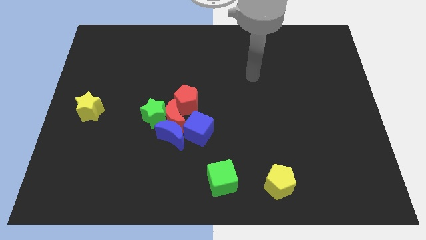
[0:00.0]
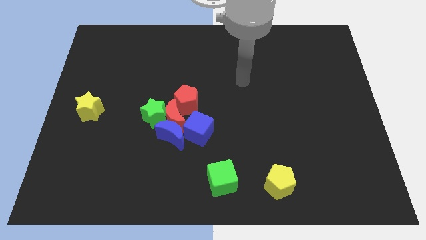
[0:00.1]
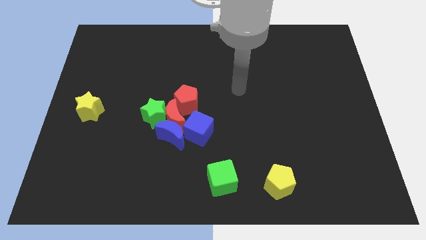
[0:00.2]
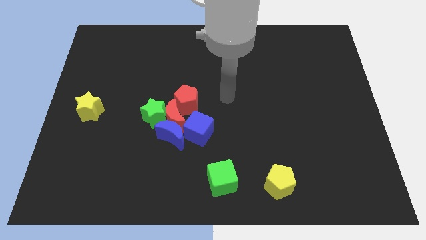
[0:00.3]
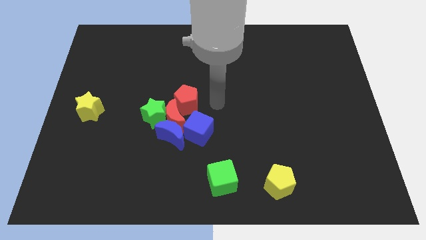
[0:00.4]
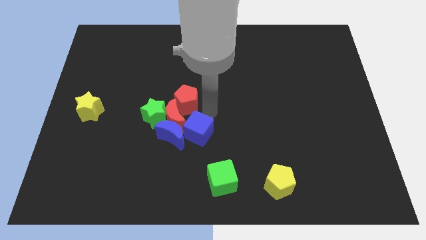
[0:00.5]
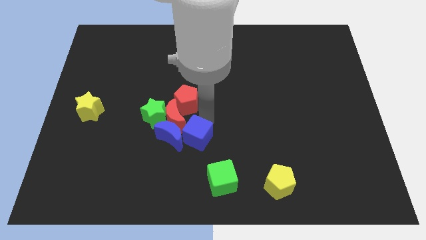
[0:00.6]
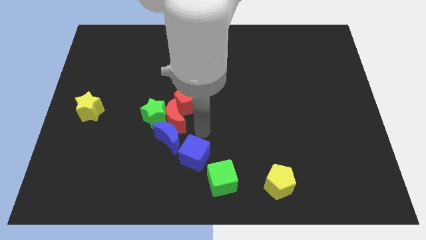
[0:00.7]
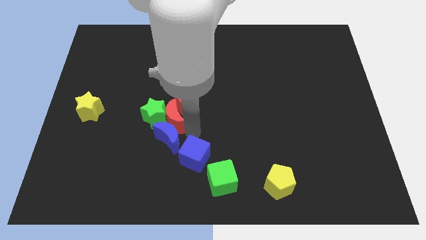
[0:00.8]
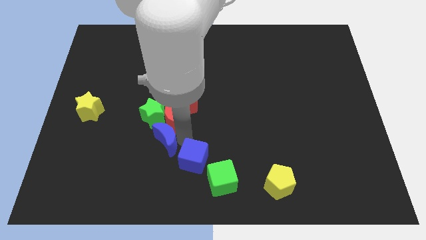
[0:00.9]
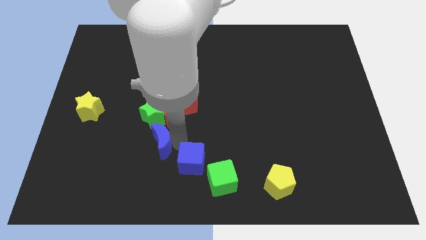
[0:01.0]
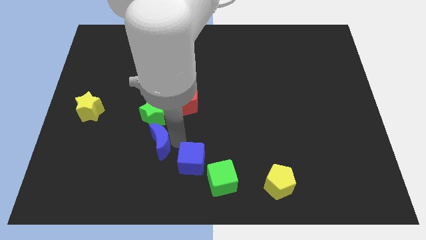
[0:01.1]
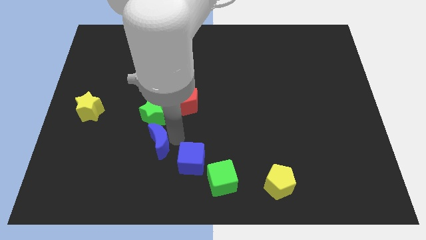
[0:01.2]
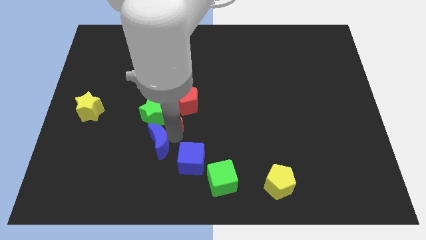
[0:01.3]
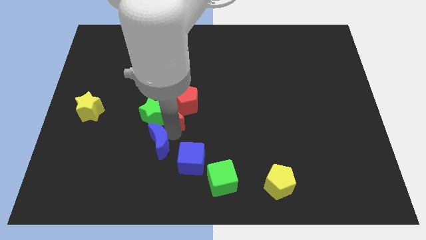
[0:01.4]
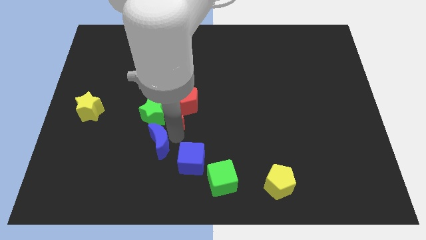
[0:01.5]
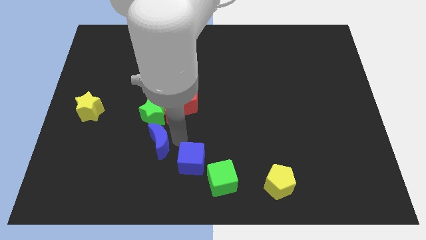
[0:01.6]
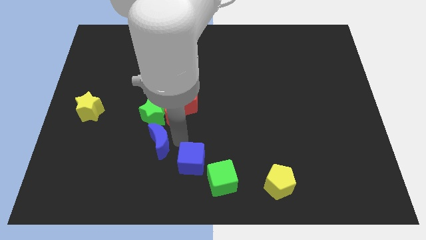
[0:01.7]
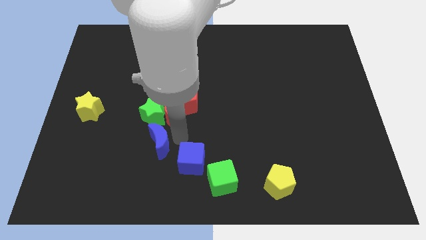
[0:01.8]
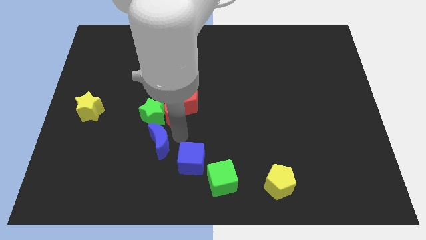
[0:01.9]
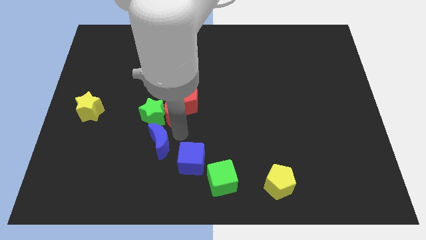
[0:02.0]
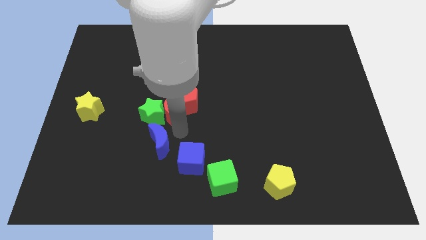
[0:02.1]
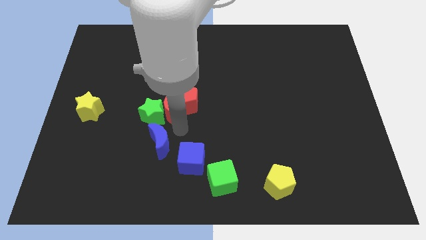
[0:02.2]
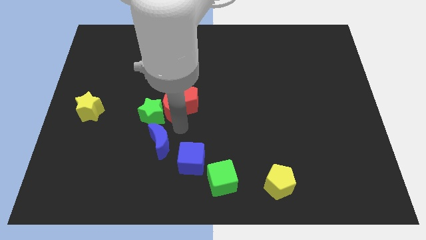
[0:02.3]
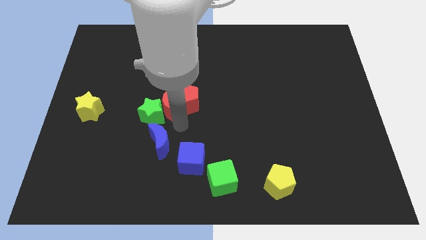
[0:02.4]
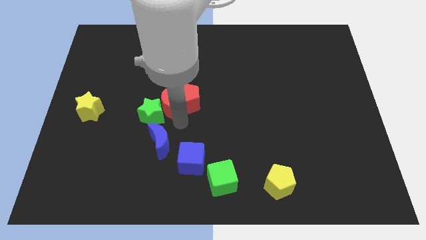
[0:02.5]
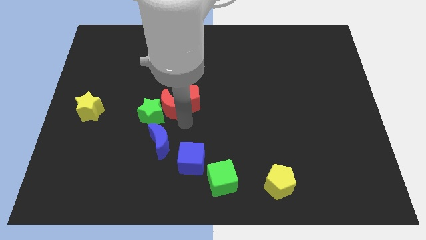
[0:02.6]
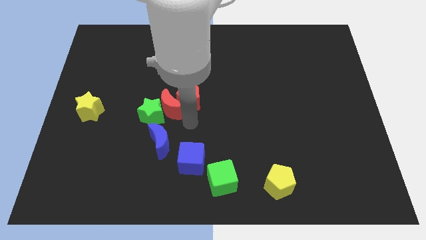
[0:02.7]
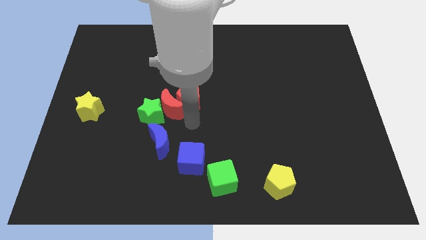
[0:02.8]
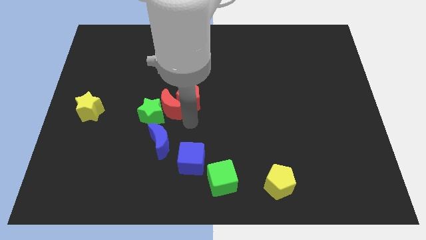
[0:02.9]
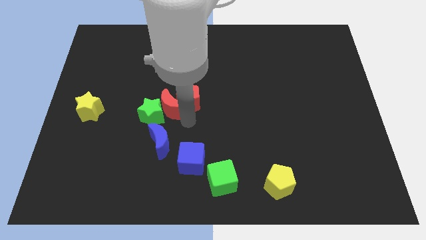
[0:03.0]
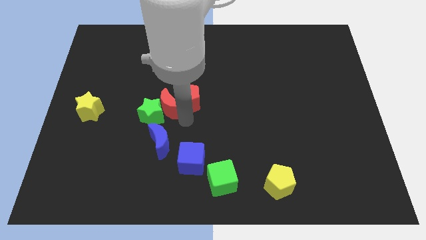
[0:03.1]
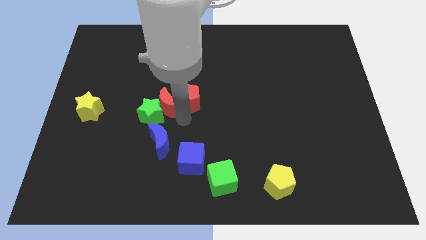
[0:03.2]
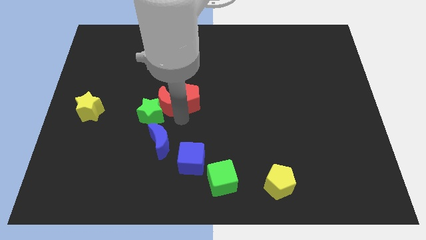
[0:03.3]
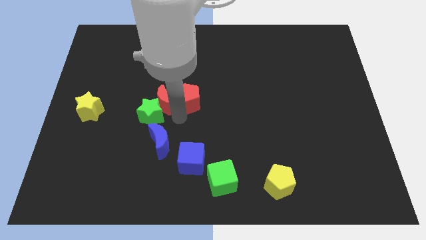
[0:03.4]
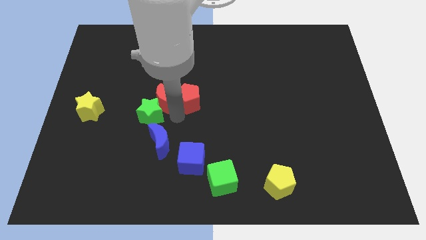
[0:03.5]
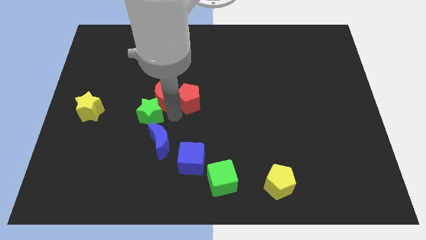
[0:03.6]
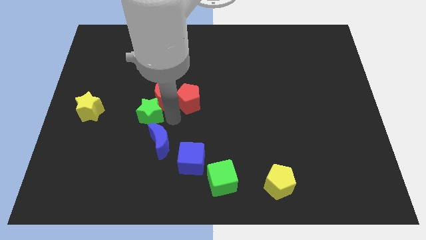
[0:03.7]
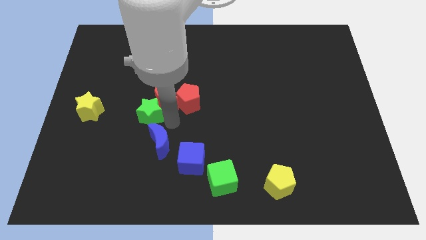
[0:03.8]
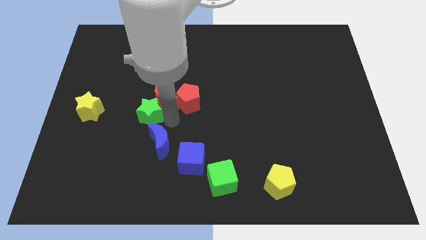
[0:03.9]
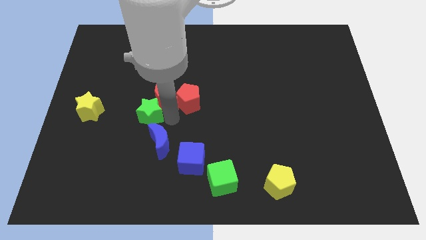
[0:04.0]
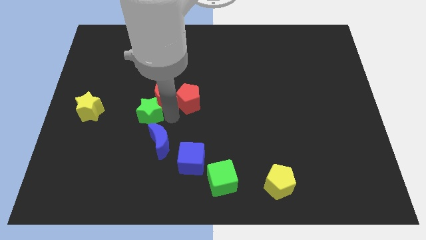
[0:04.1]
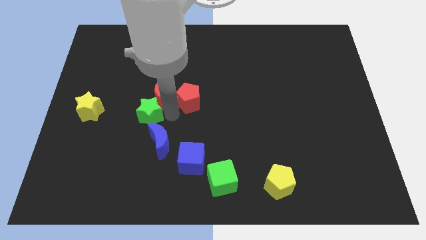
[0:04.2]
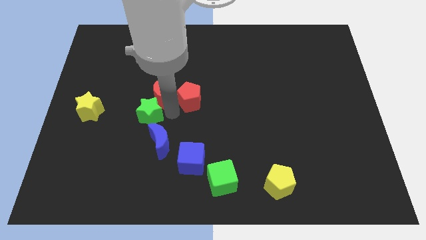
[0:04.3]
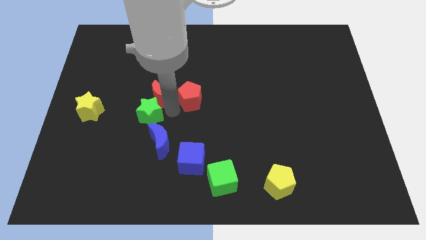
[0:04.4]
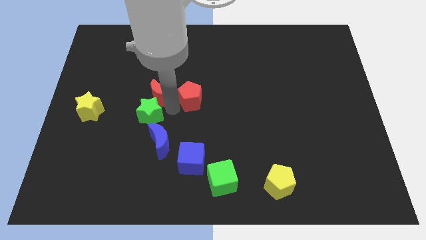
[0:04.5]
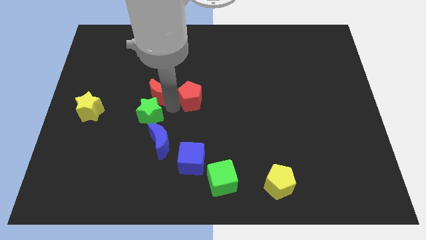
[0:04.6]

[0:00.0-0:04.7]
pull the red moon apart from the clump

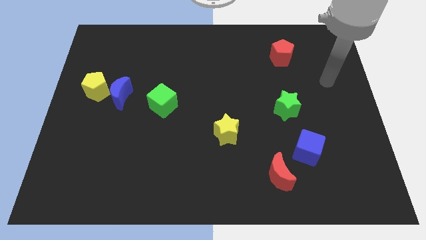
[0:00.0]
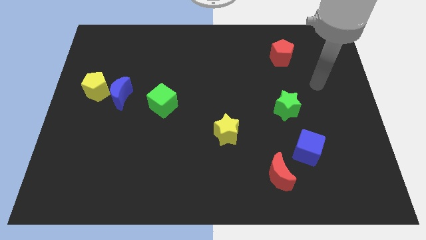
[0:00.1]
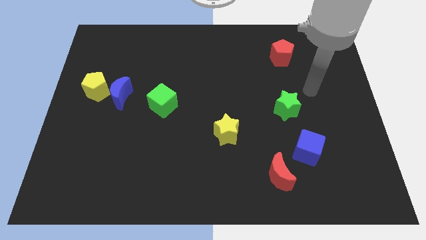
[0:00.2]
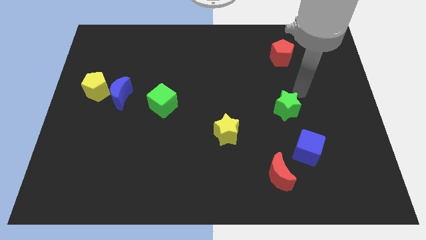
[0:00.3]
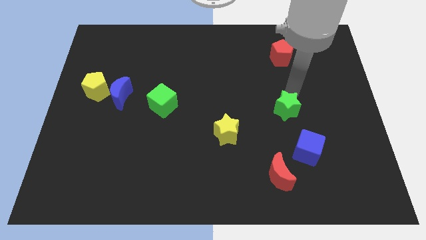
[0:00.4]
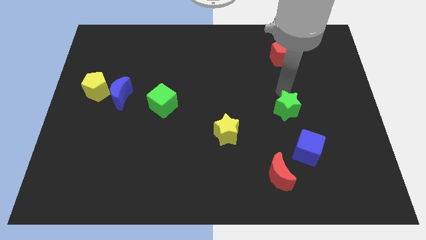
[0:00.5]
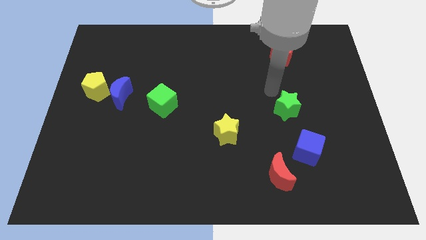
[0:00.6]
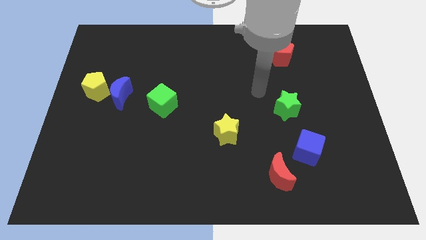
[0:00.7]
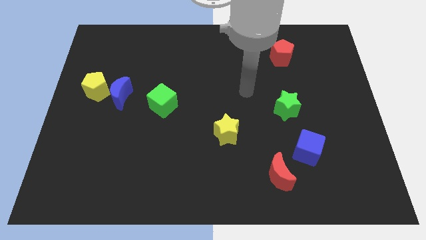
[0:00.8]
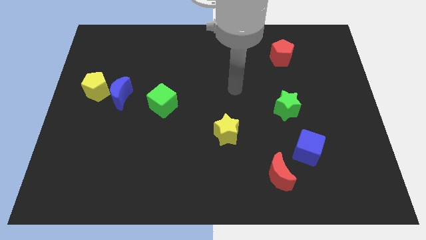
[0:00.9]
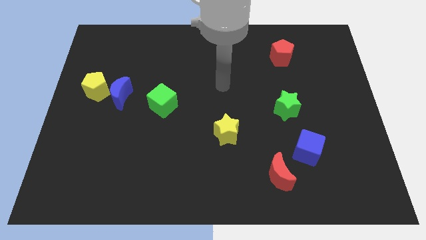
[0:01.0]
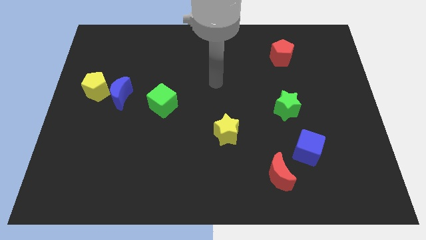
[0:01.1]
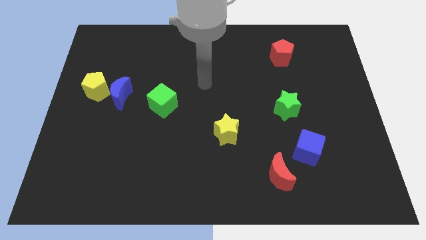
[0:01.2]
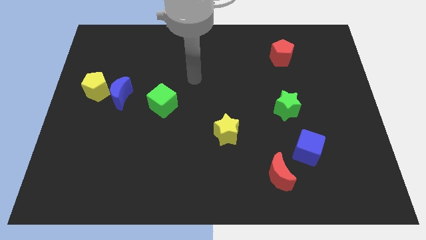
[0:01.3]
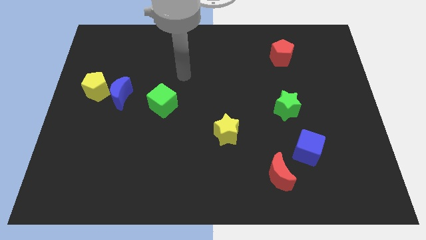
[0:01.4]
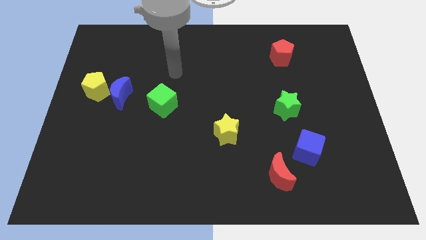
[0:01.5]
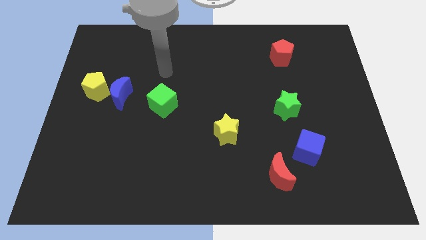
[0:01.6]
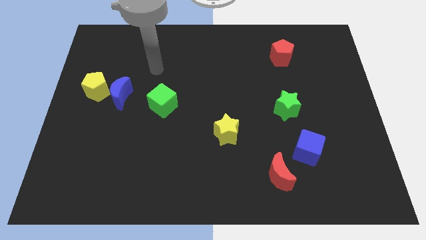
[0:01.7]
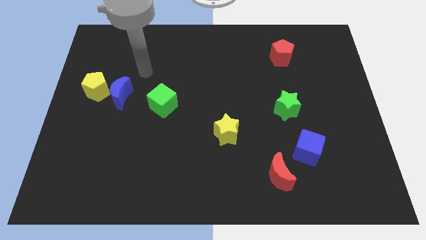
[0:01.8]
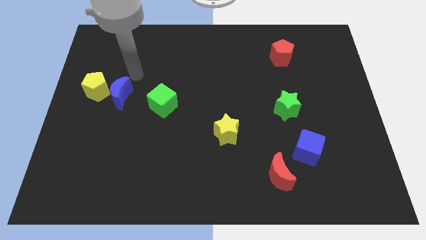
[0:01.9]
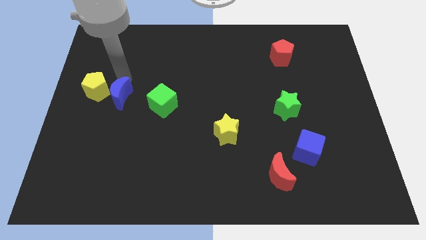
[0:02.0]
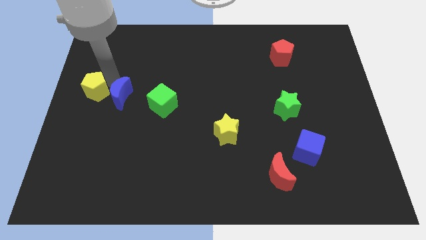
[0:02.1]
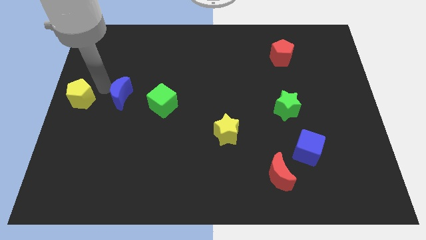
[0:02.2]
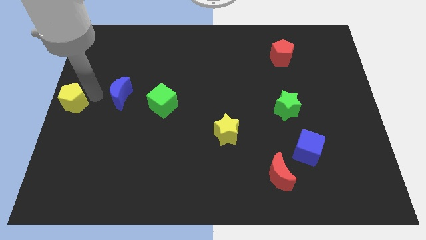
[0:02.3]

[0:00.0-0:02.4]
move the blue moon away from the yellow pentagon

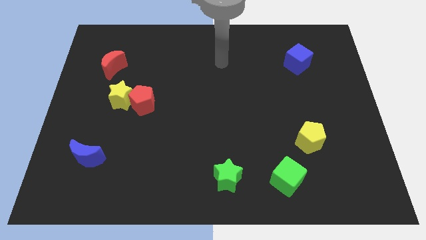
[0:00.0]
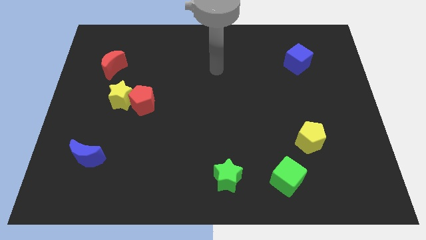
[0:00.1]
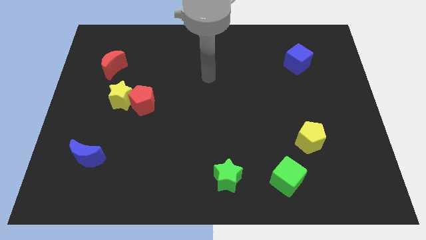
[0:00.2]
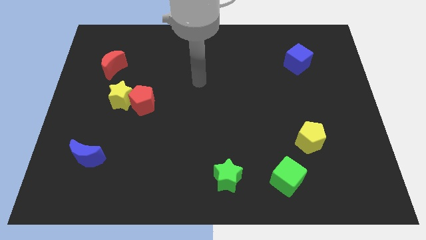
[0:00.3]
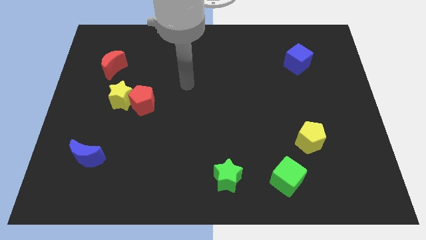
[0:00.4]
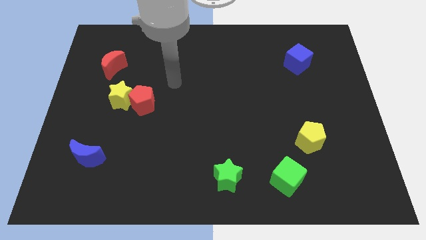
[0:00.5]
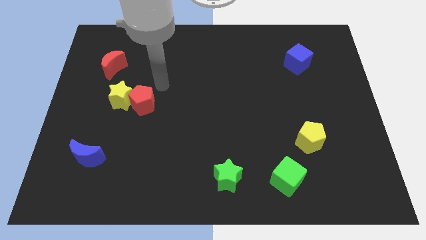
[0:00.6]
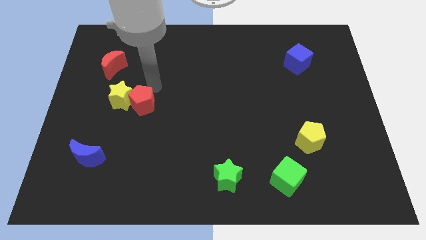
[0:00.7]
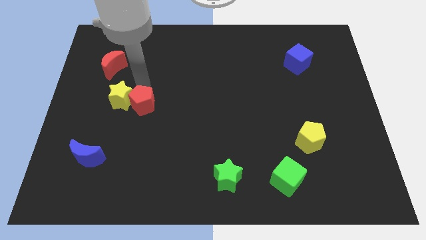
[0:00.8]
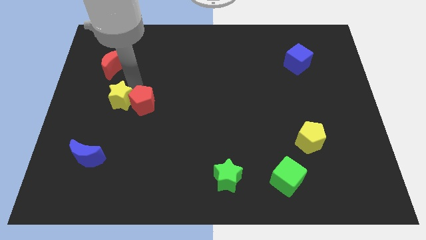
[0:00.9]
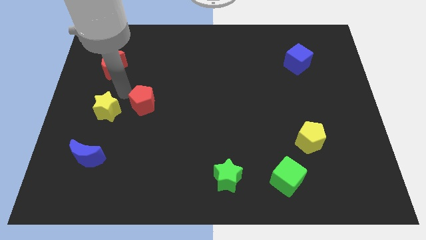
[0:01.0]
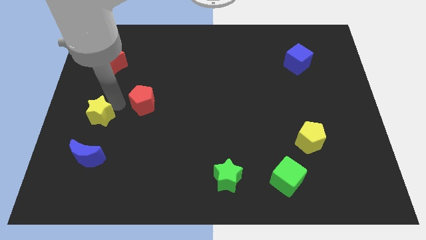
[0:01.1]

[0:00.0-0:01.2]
move the red pentagon away from the yellow star

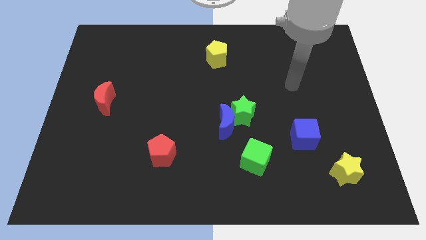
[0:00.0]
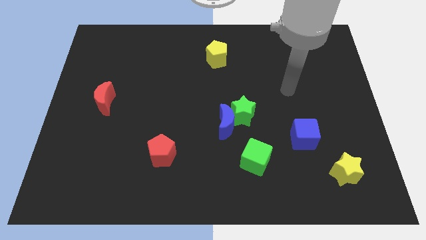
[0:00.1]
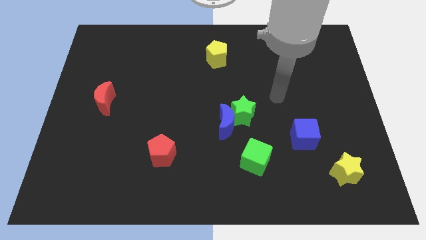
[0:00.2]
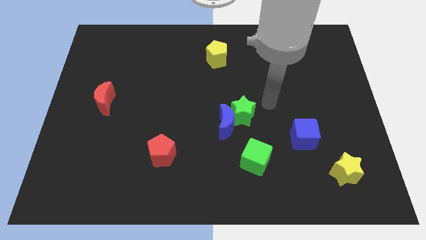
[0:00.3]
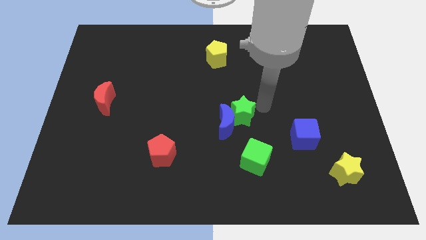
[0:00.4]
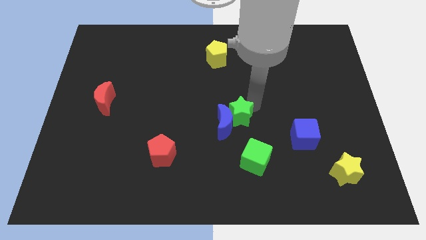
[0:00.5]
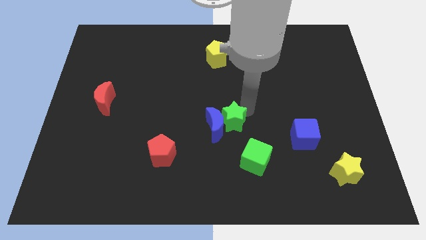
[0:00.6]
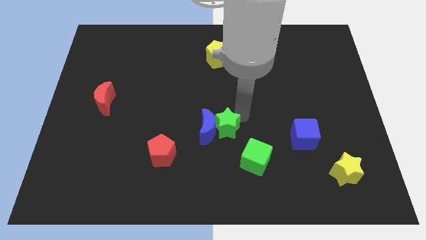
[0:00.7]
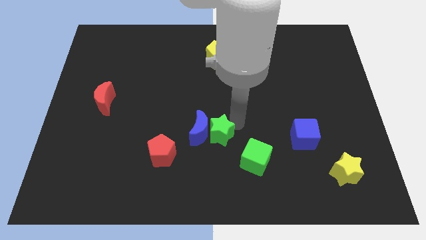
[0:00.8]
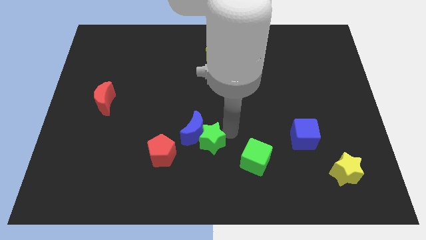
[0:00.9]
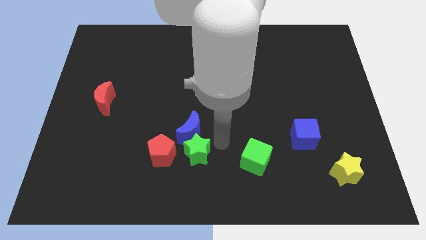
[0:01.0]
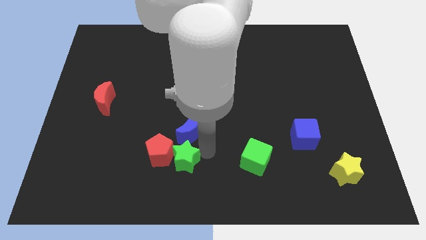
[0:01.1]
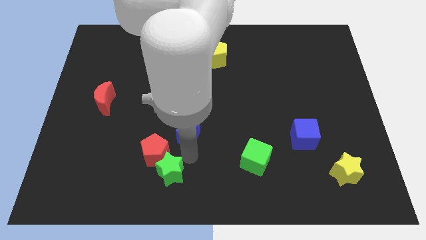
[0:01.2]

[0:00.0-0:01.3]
move the blue moon away from the green star

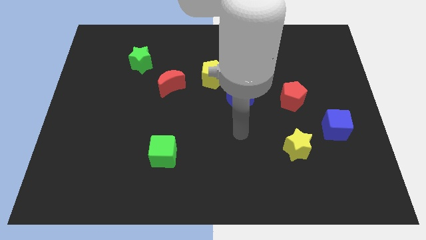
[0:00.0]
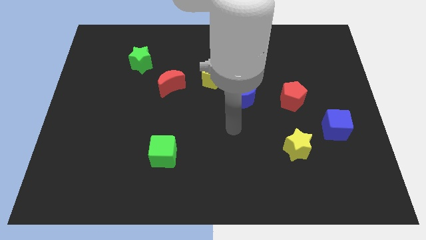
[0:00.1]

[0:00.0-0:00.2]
pull the blue moon apart from the yellow pentagon
